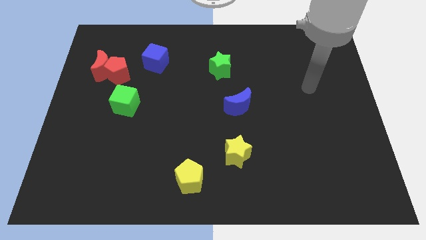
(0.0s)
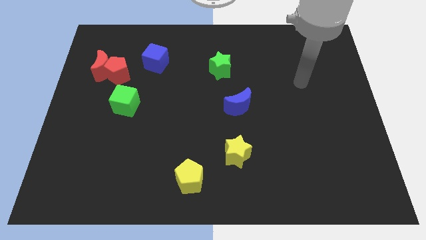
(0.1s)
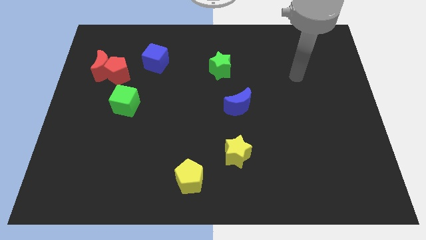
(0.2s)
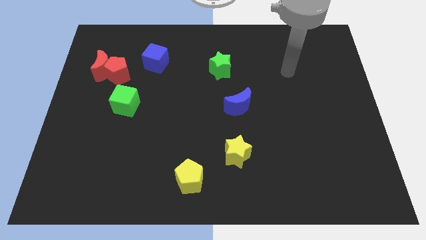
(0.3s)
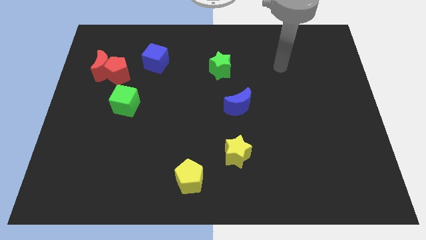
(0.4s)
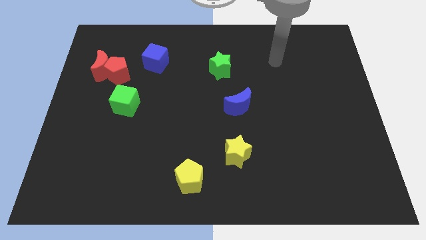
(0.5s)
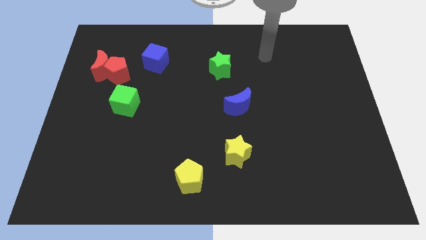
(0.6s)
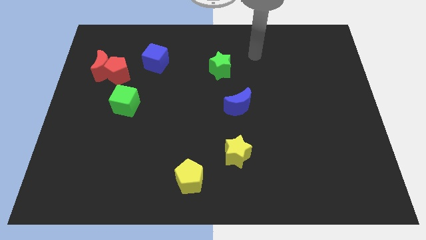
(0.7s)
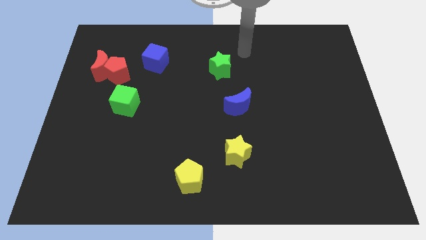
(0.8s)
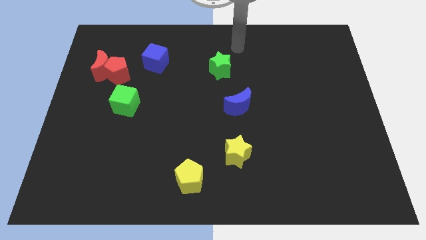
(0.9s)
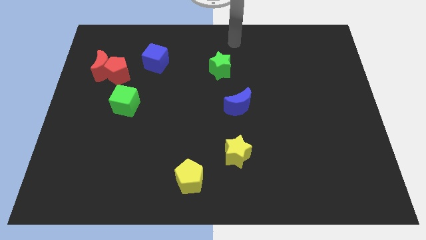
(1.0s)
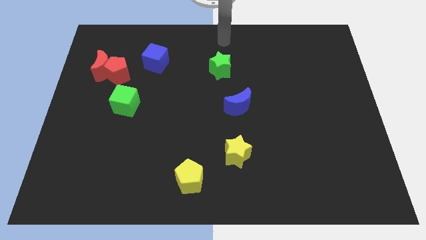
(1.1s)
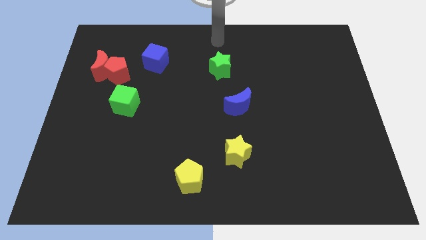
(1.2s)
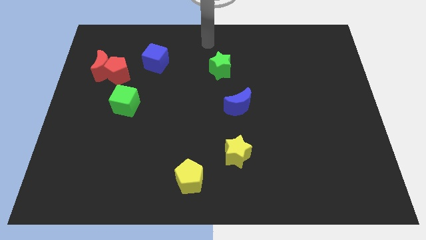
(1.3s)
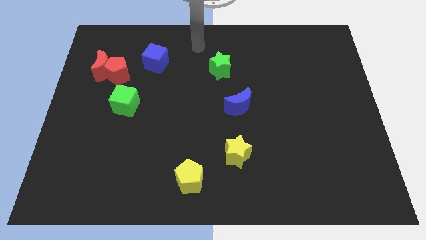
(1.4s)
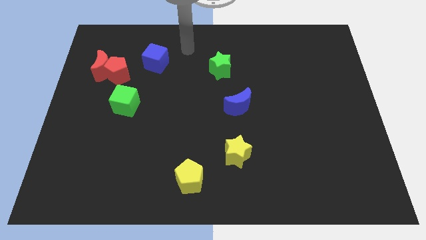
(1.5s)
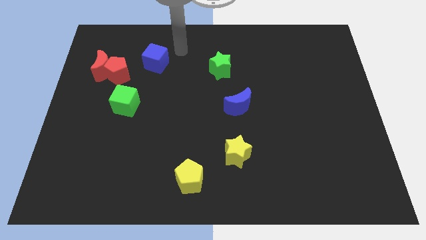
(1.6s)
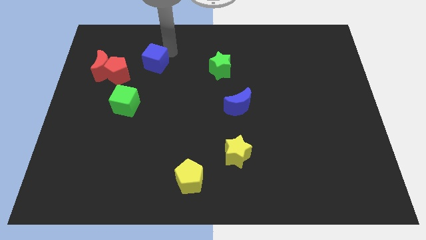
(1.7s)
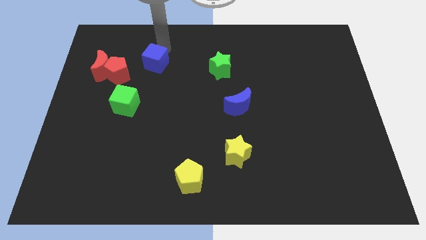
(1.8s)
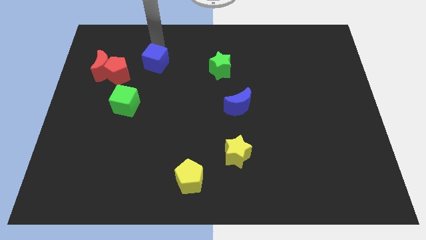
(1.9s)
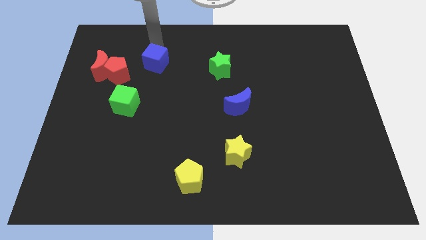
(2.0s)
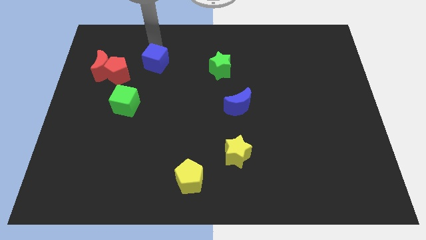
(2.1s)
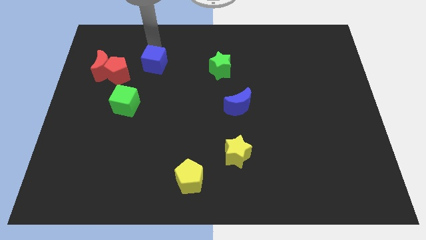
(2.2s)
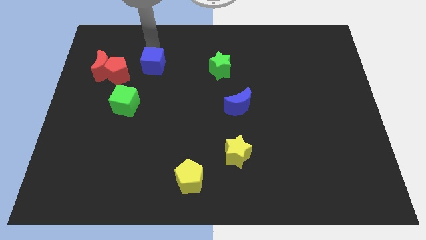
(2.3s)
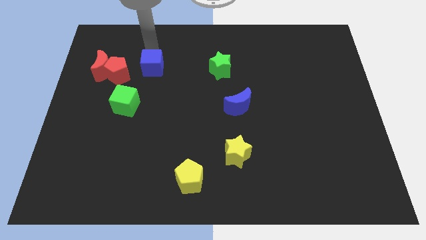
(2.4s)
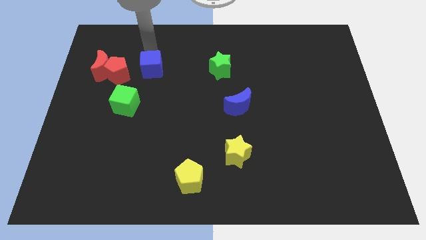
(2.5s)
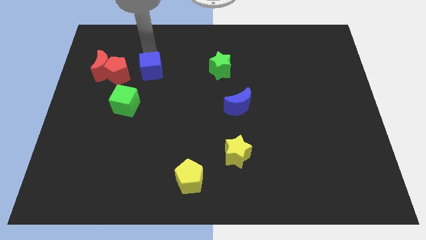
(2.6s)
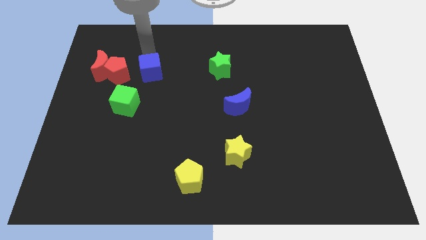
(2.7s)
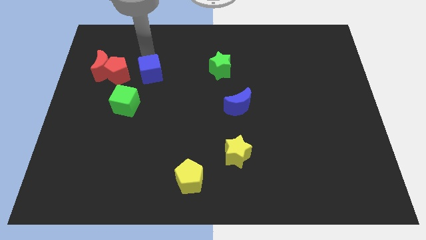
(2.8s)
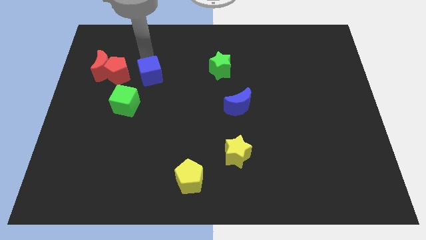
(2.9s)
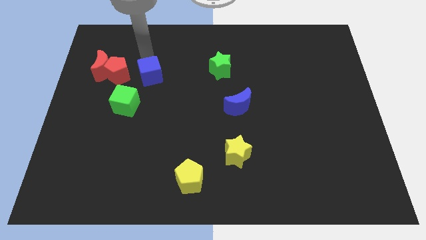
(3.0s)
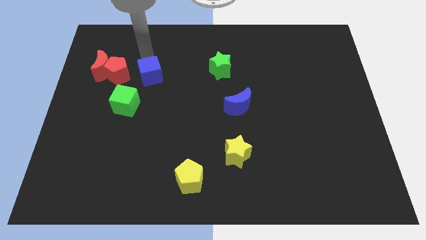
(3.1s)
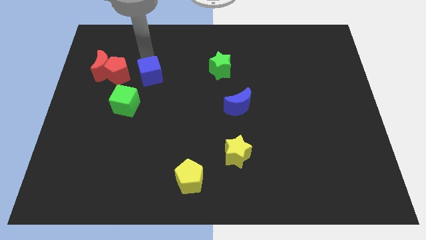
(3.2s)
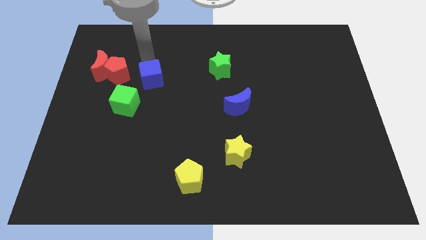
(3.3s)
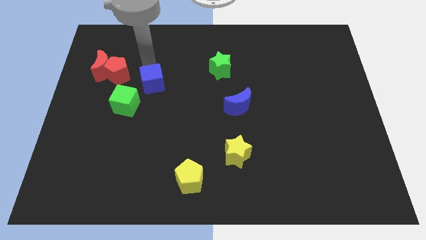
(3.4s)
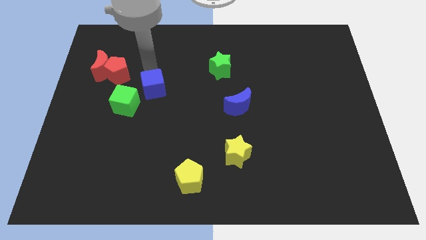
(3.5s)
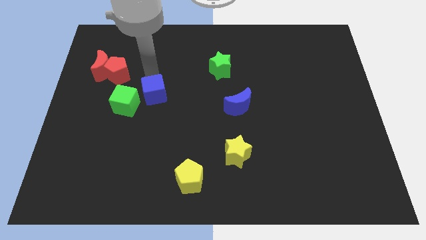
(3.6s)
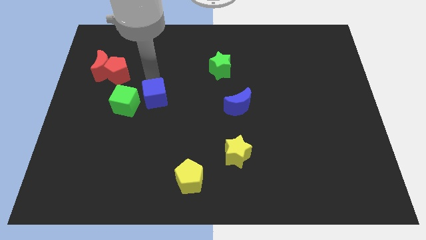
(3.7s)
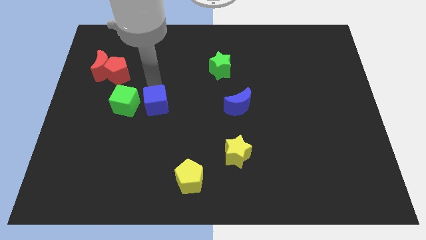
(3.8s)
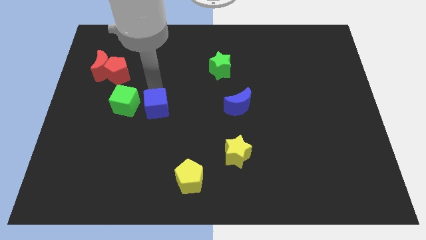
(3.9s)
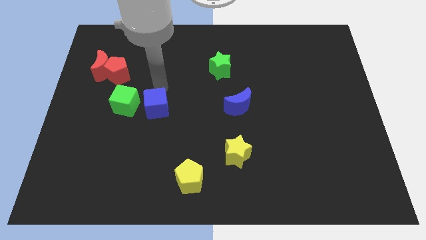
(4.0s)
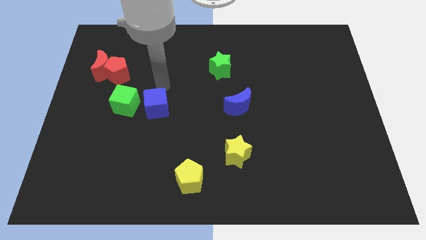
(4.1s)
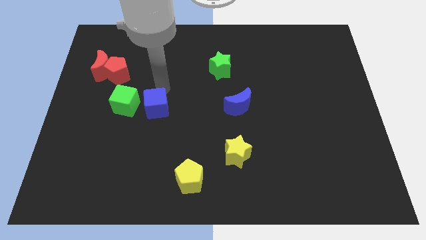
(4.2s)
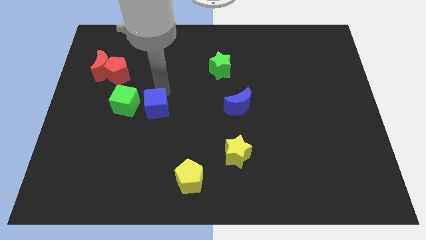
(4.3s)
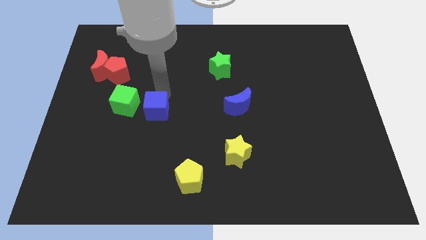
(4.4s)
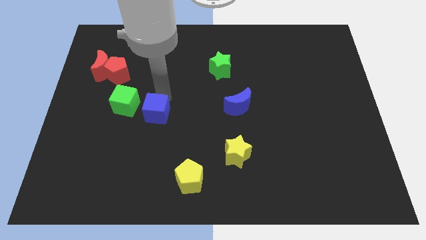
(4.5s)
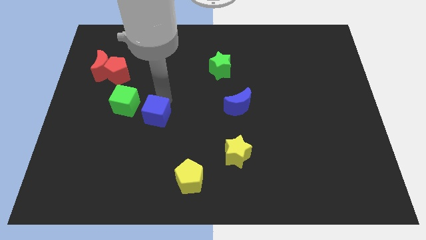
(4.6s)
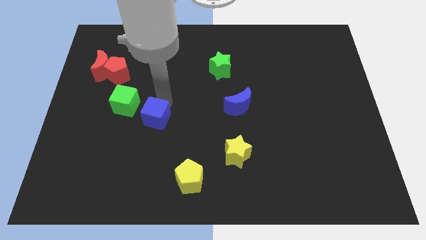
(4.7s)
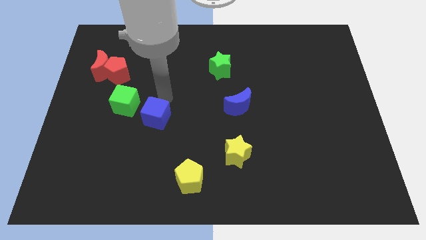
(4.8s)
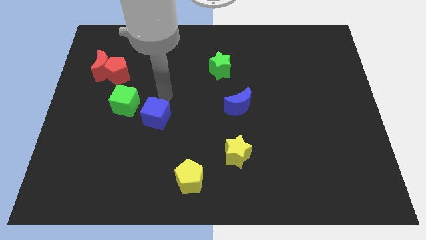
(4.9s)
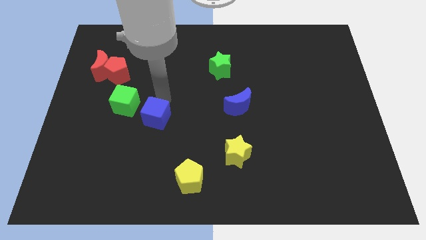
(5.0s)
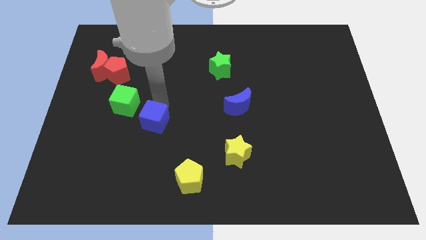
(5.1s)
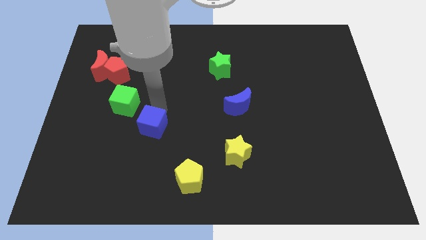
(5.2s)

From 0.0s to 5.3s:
push the blue cube down

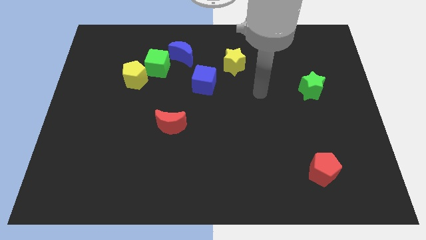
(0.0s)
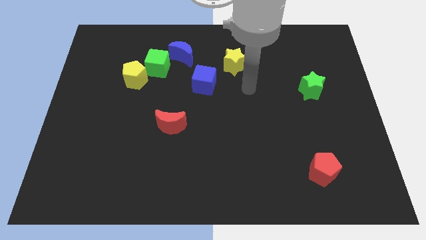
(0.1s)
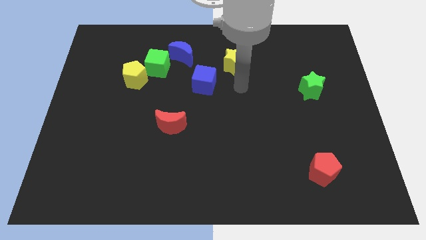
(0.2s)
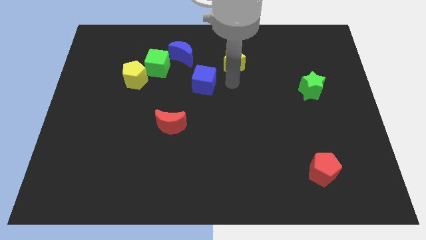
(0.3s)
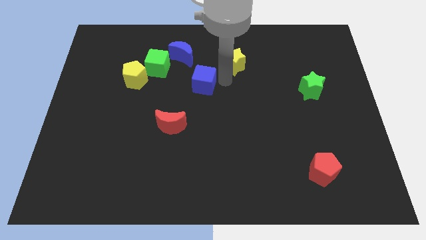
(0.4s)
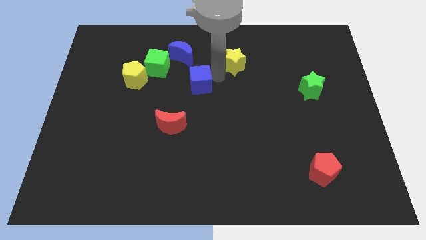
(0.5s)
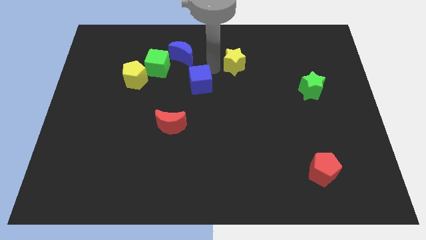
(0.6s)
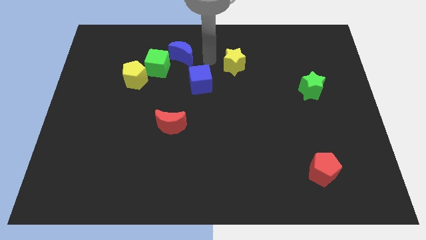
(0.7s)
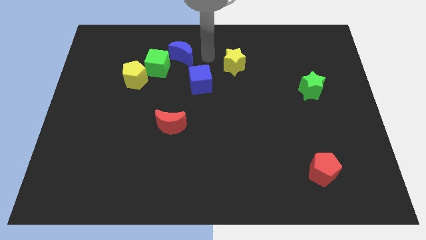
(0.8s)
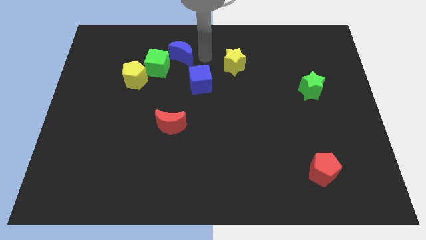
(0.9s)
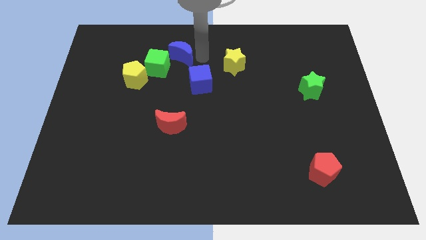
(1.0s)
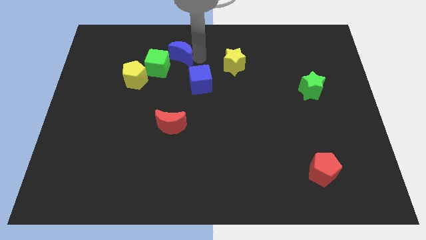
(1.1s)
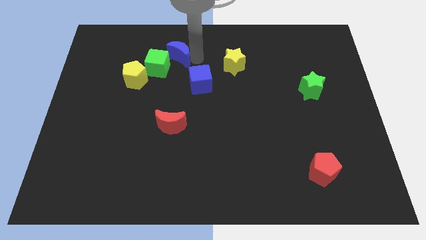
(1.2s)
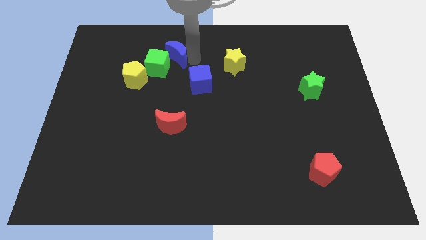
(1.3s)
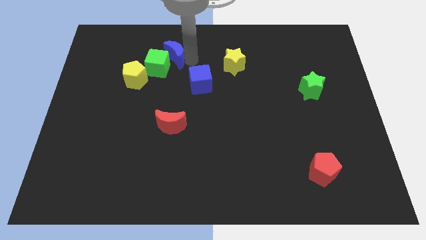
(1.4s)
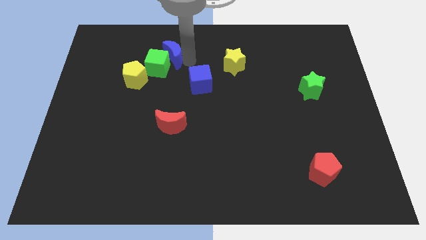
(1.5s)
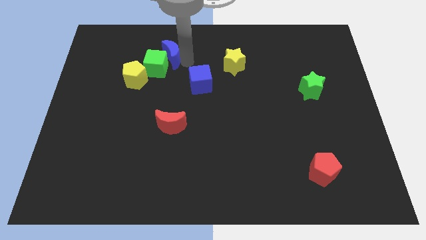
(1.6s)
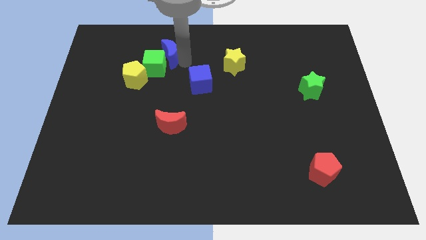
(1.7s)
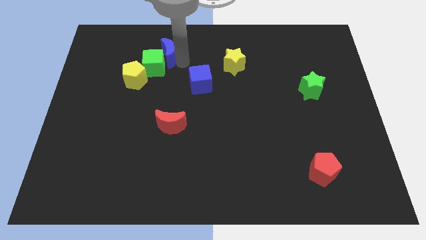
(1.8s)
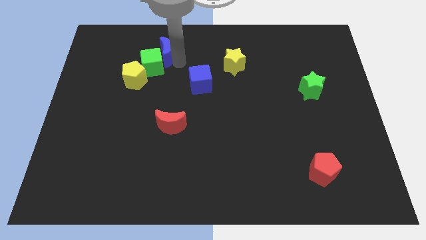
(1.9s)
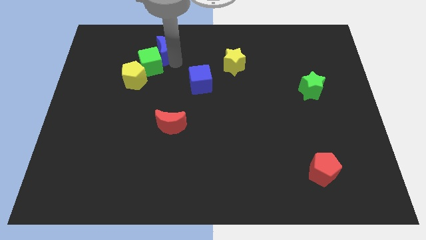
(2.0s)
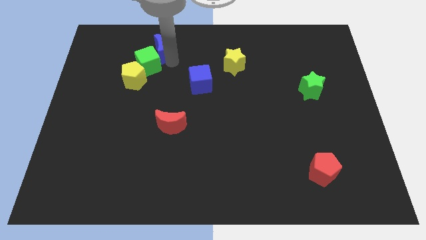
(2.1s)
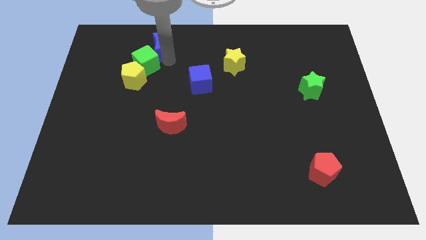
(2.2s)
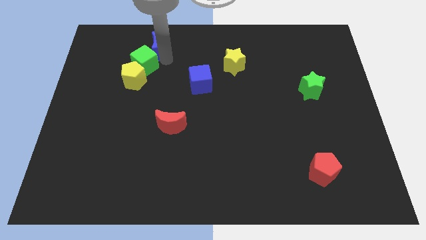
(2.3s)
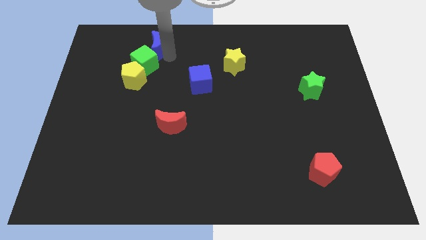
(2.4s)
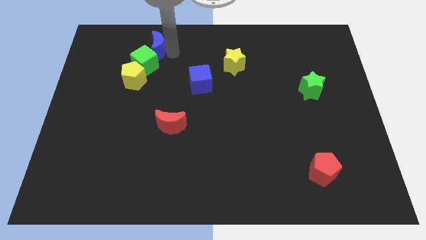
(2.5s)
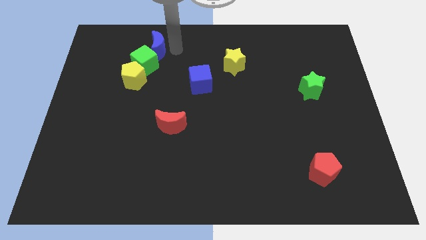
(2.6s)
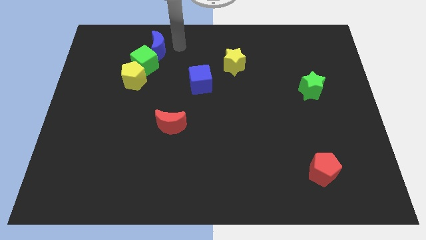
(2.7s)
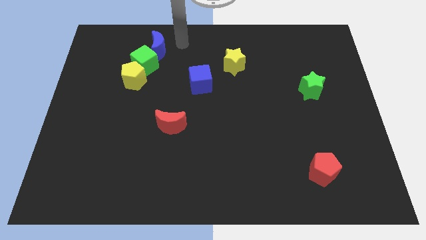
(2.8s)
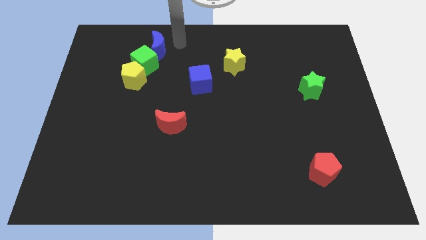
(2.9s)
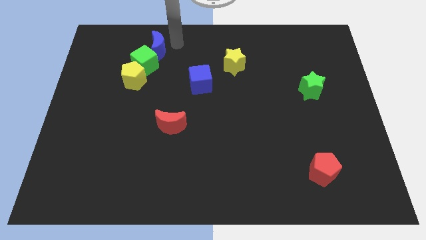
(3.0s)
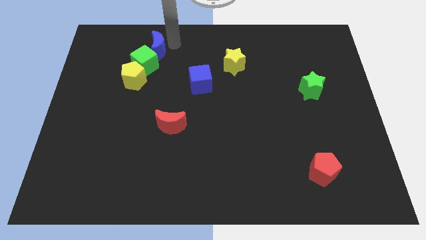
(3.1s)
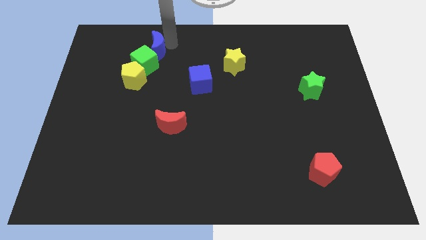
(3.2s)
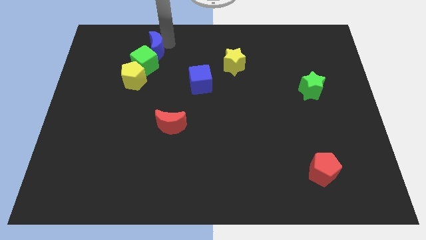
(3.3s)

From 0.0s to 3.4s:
slightly slide the blue moon to the left
